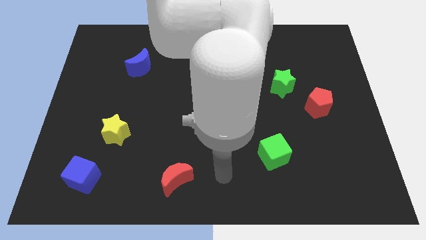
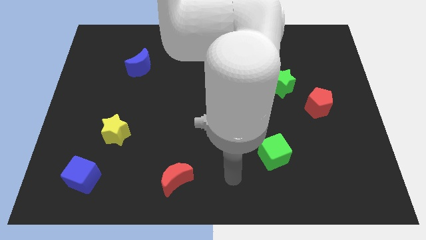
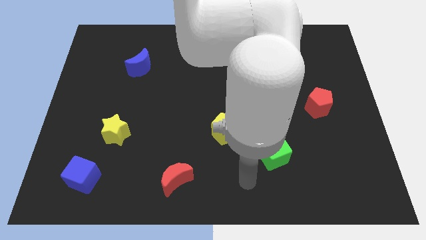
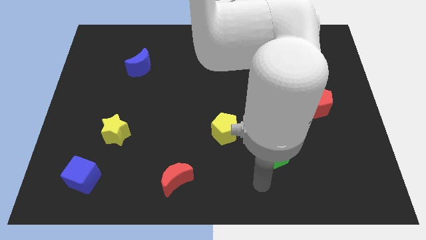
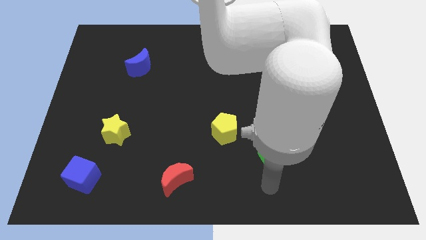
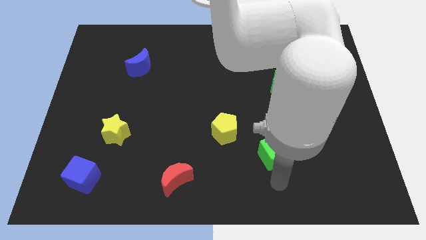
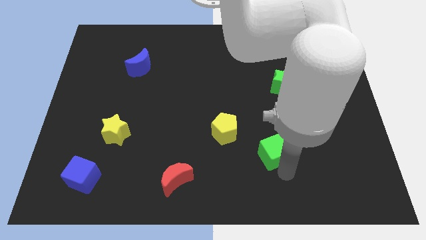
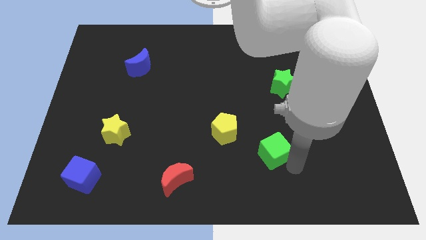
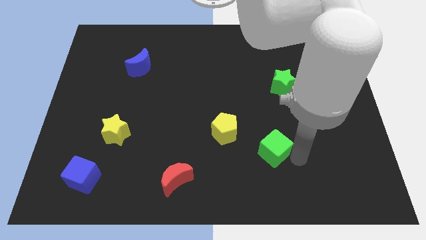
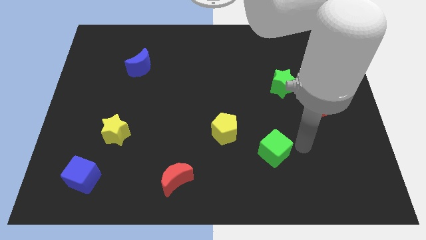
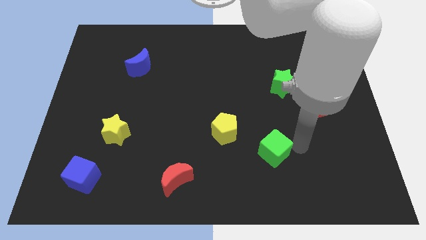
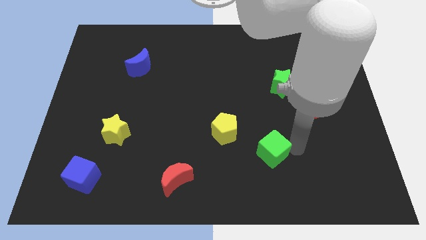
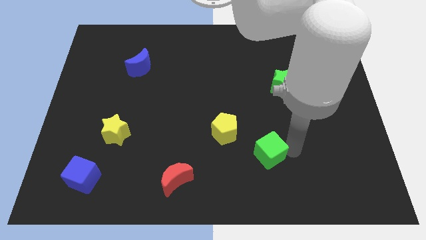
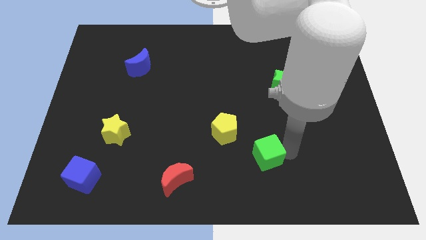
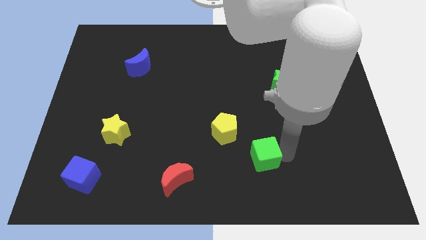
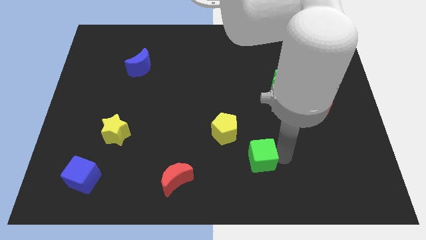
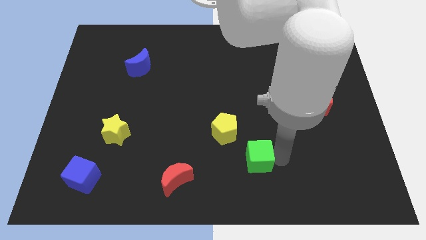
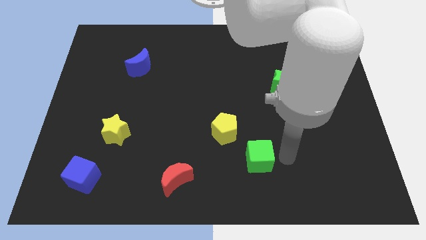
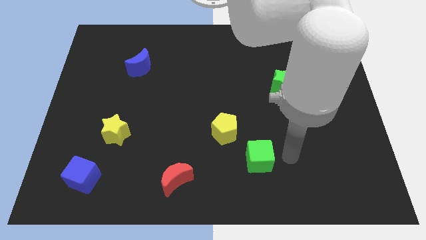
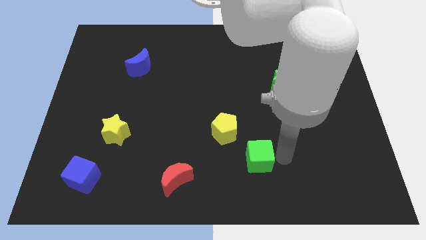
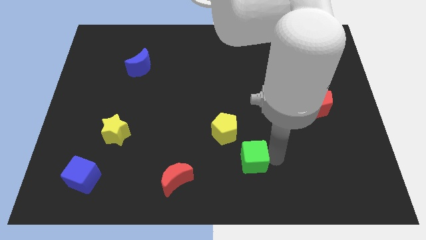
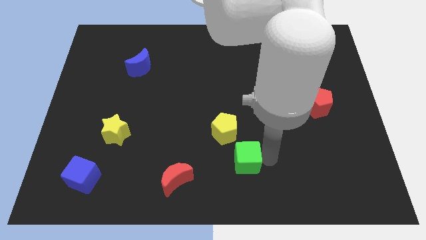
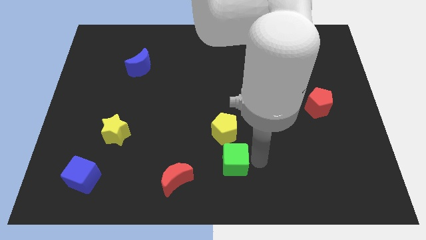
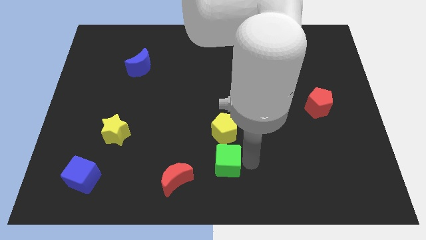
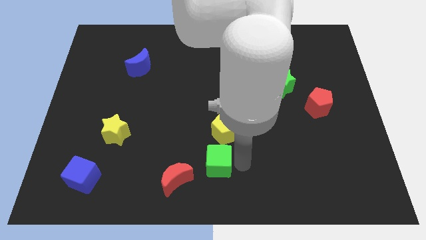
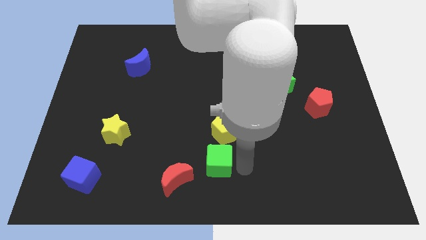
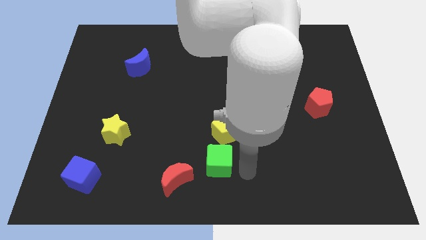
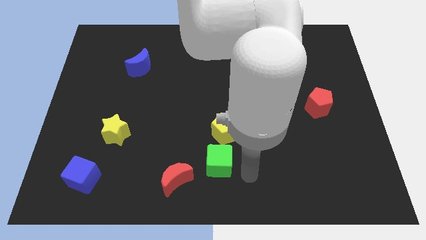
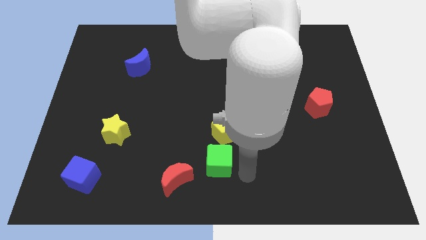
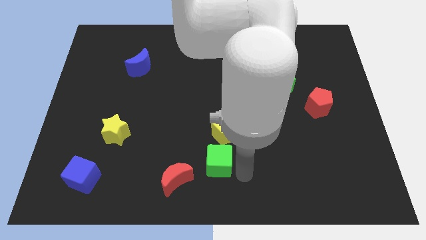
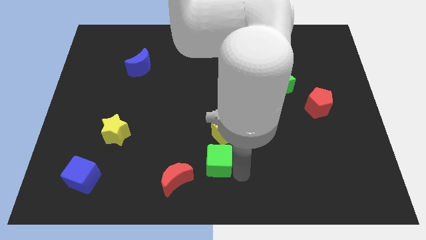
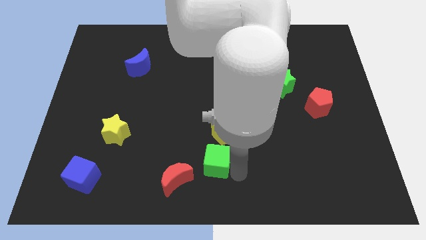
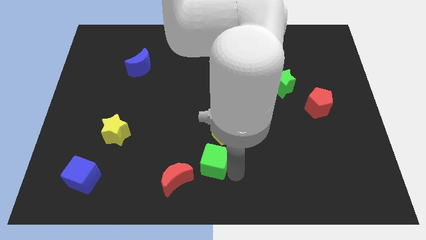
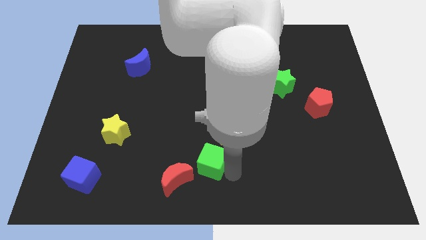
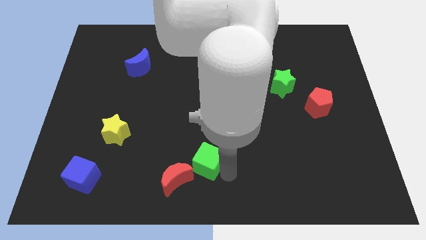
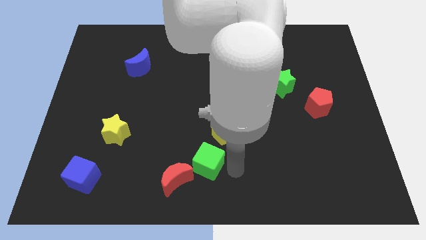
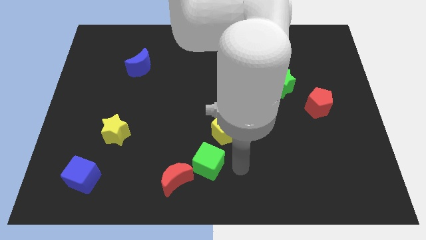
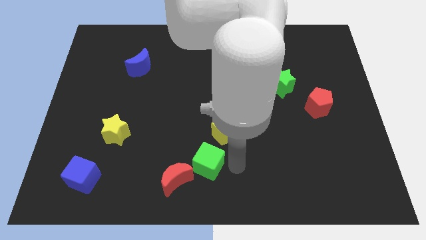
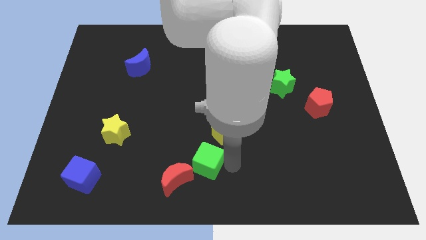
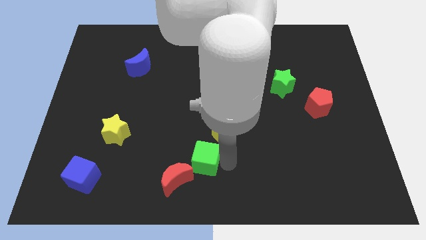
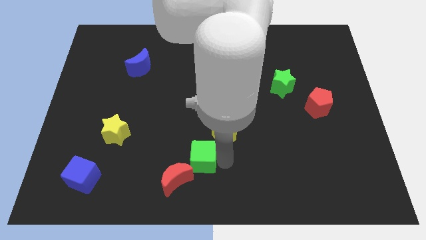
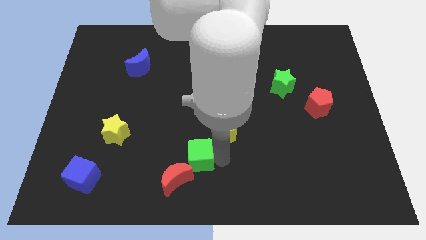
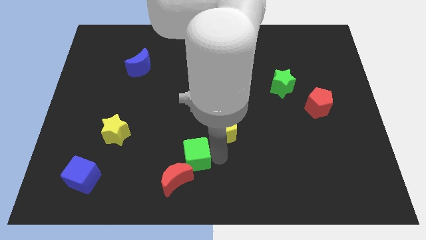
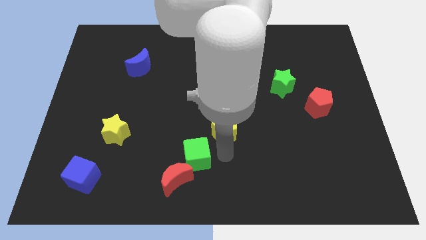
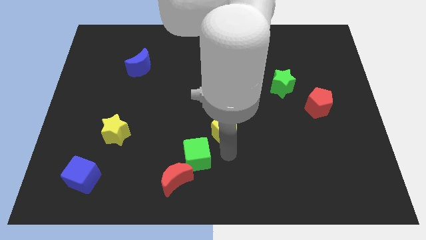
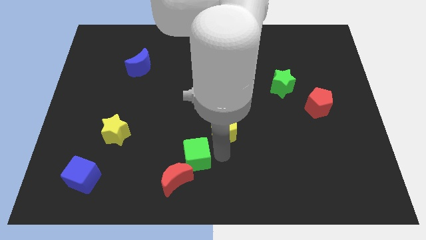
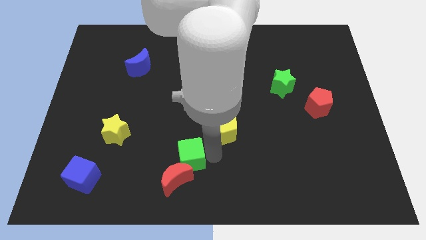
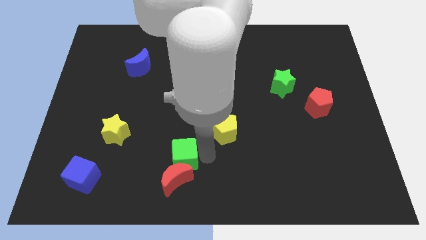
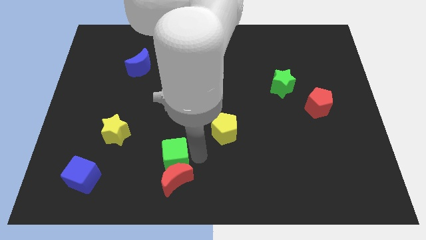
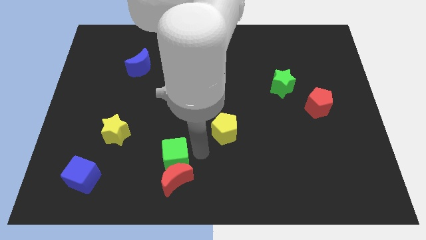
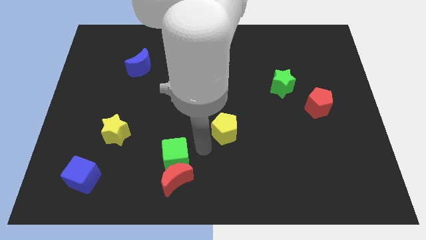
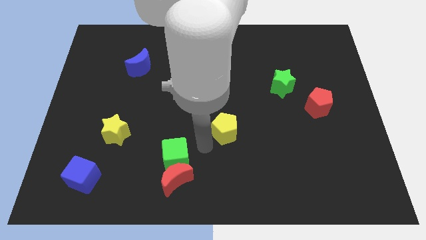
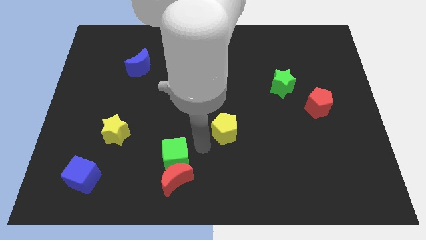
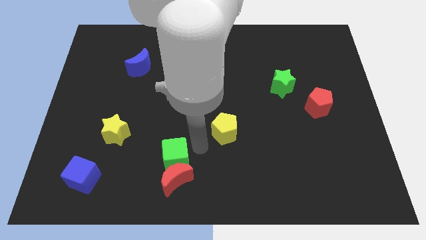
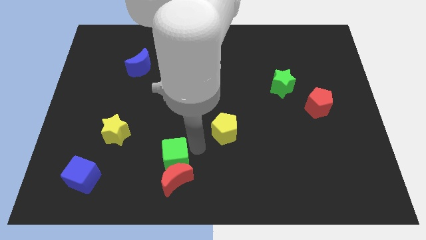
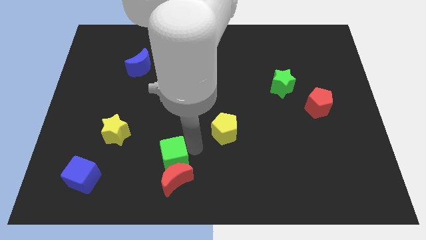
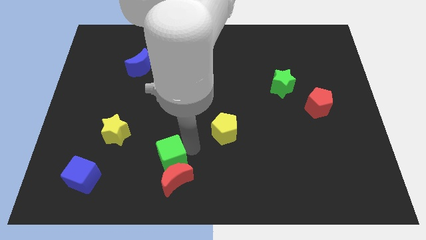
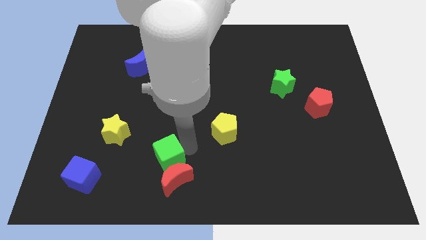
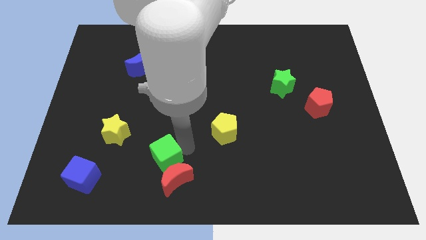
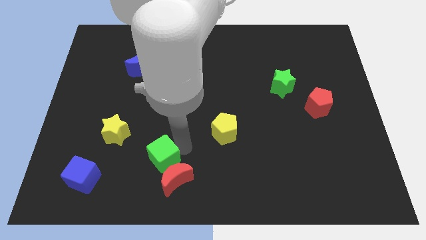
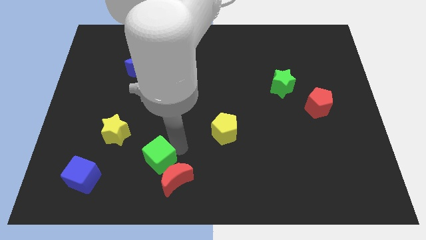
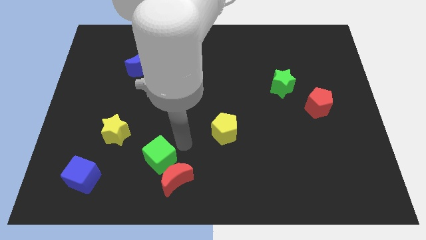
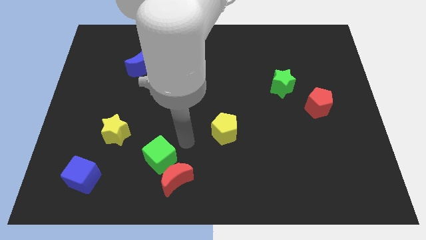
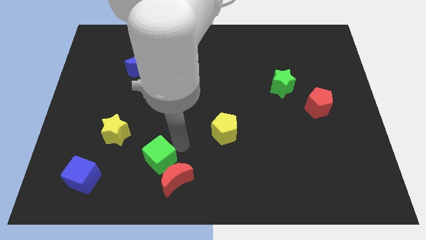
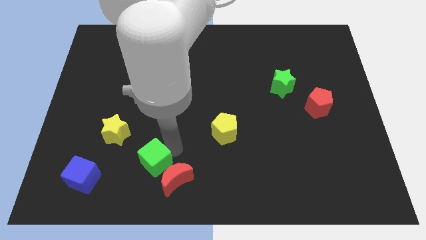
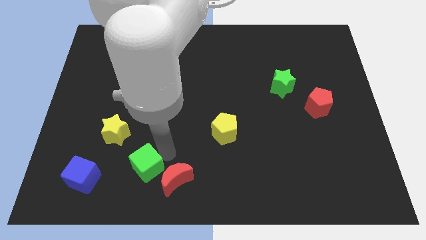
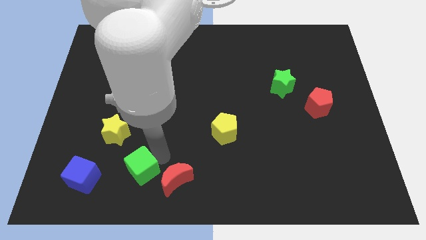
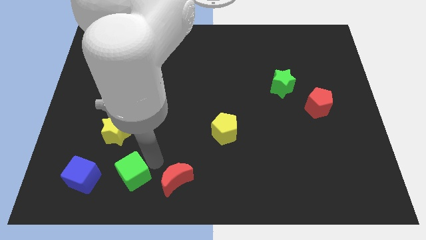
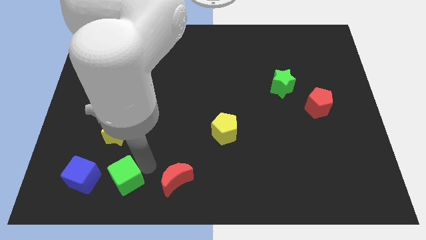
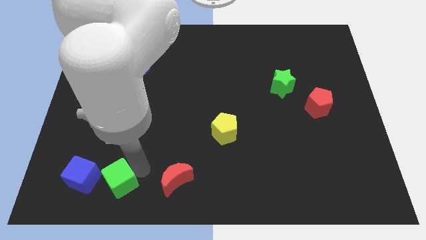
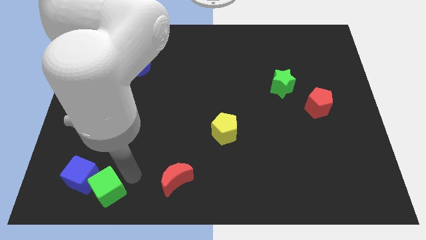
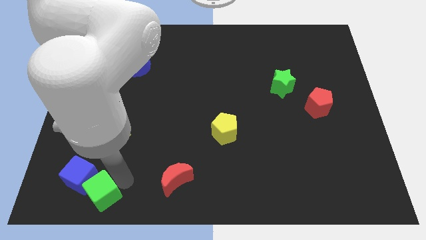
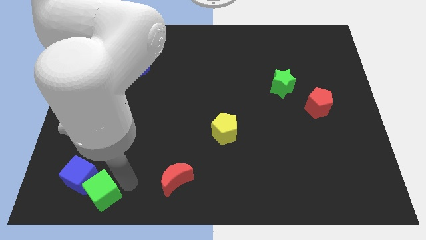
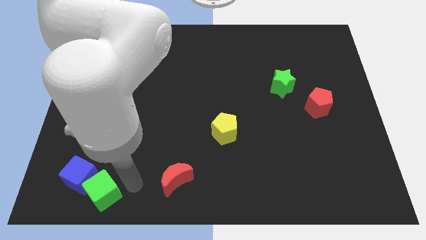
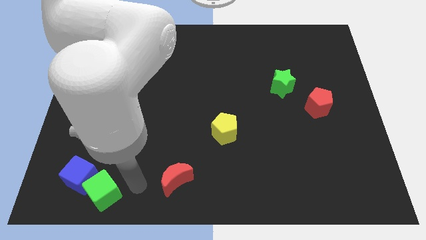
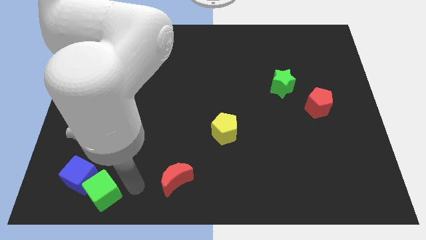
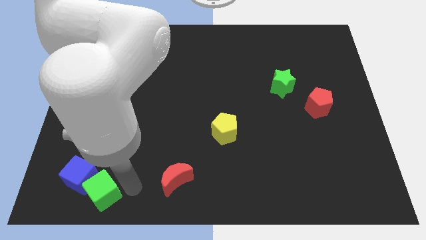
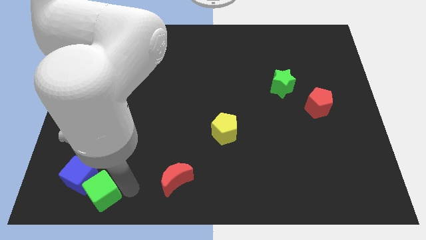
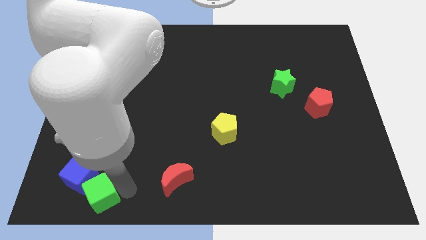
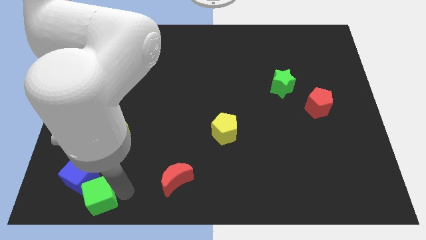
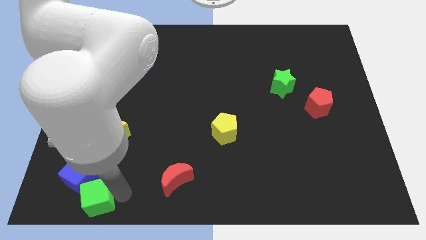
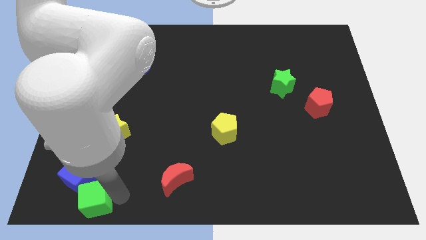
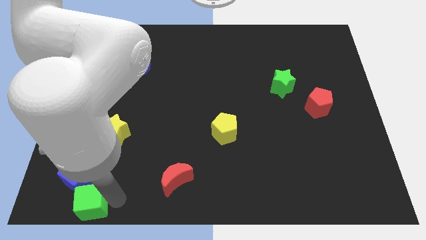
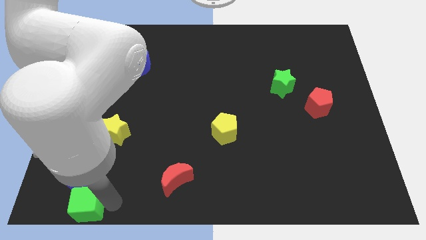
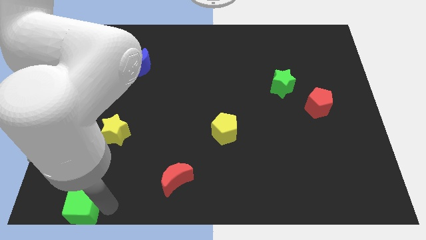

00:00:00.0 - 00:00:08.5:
put the green cube to the bottom left corner
